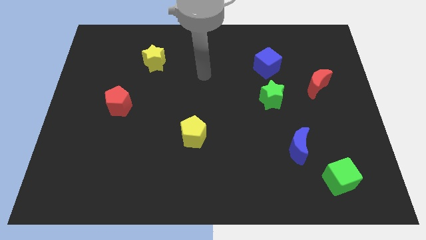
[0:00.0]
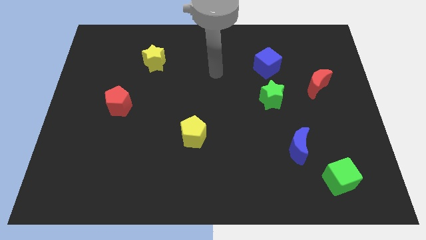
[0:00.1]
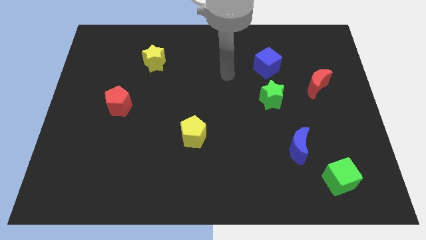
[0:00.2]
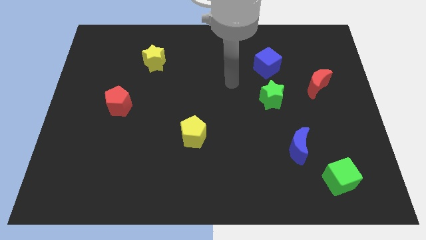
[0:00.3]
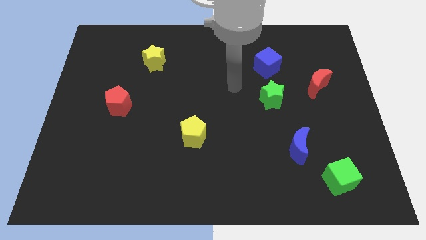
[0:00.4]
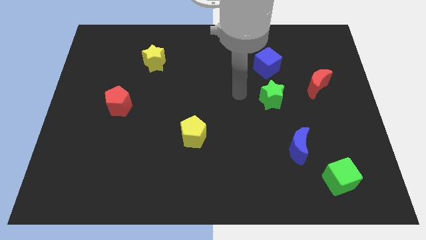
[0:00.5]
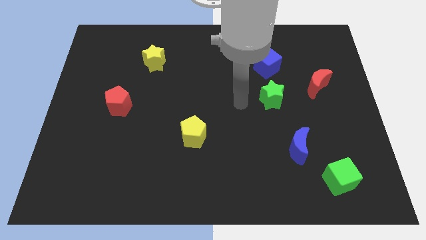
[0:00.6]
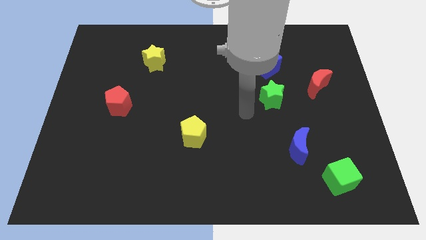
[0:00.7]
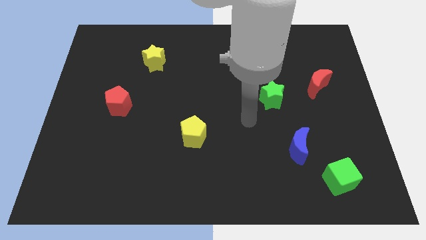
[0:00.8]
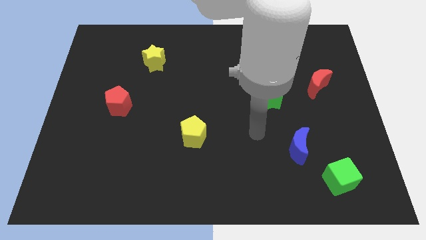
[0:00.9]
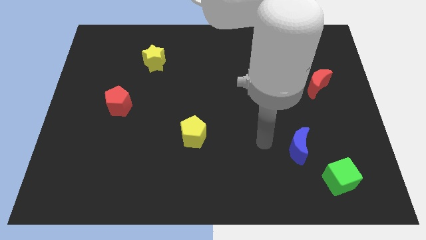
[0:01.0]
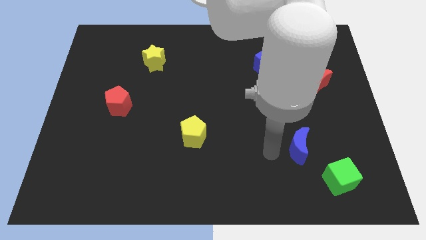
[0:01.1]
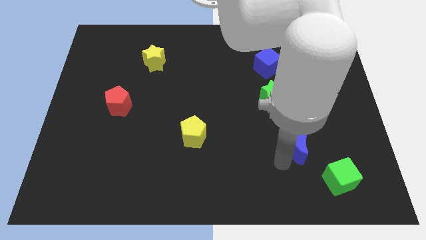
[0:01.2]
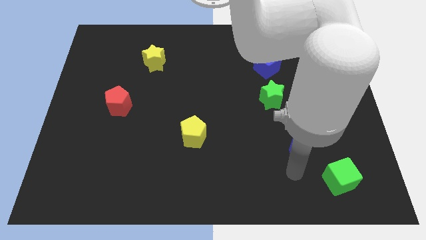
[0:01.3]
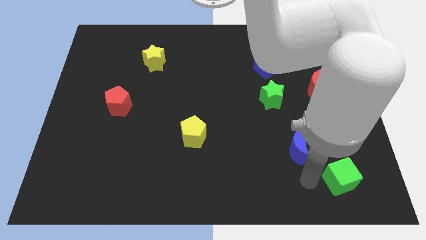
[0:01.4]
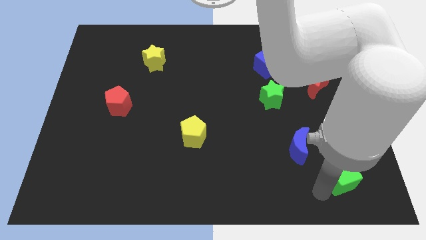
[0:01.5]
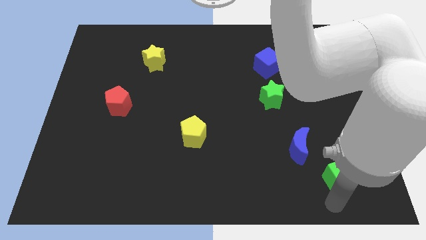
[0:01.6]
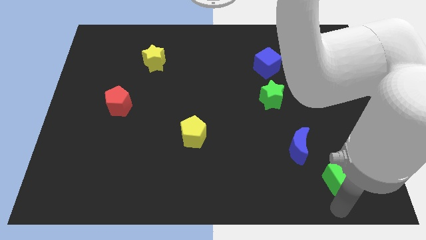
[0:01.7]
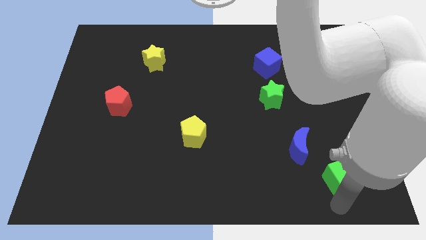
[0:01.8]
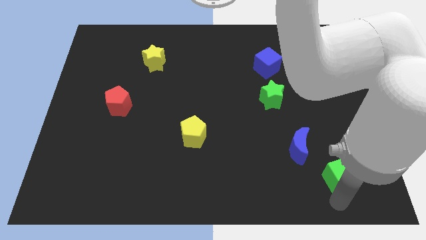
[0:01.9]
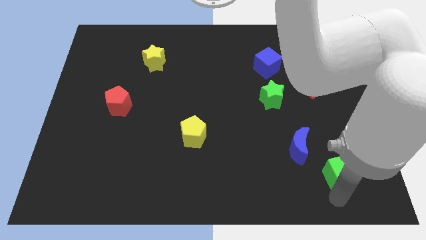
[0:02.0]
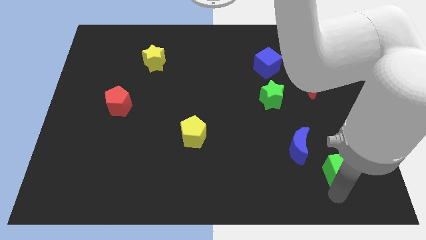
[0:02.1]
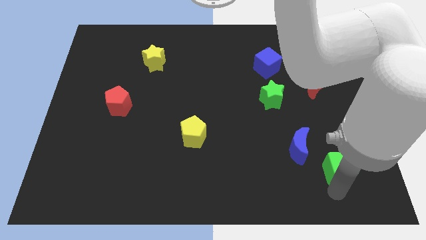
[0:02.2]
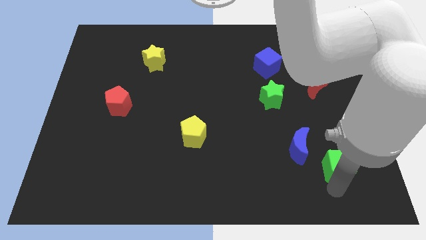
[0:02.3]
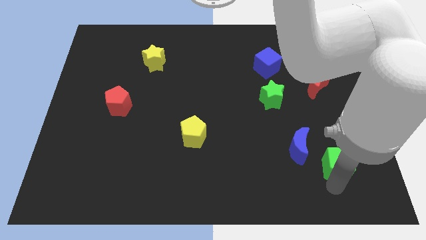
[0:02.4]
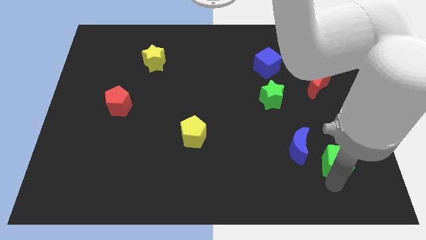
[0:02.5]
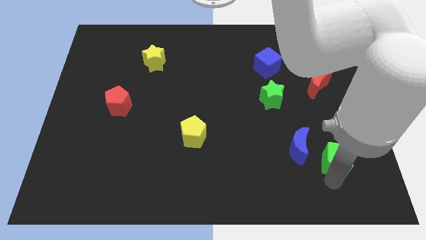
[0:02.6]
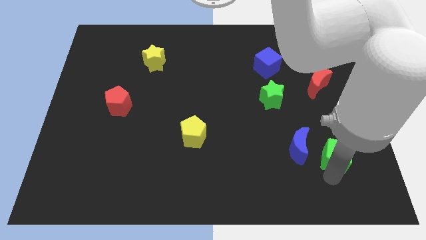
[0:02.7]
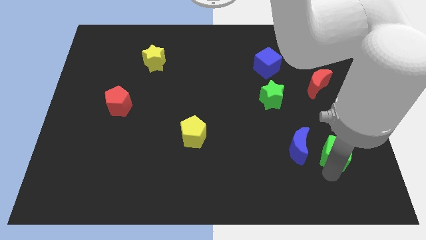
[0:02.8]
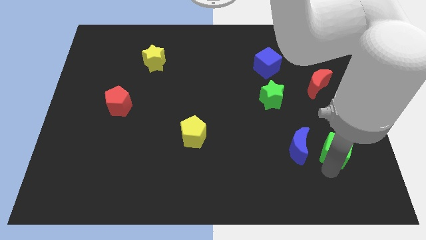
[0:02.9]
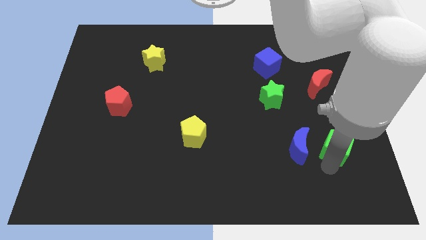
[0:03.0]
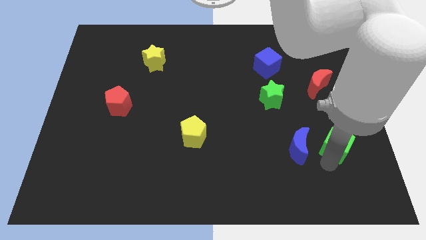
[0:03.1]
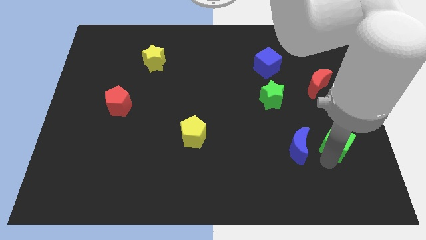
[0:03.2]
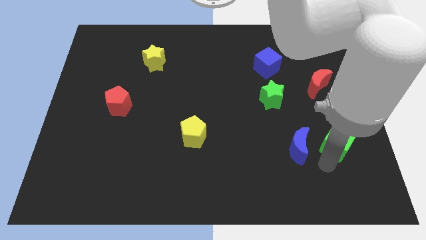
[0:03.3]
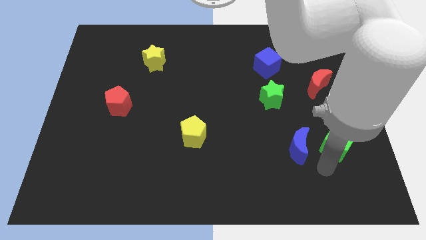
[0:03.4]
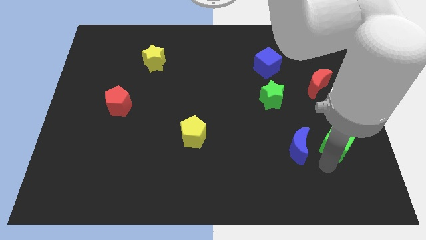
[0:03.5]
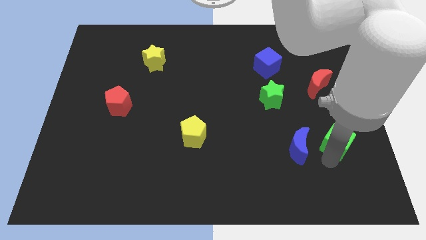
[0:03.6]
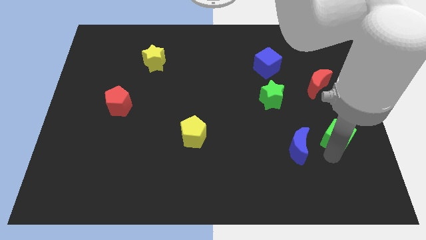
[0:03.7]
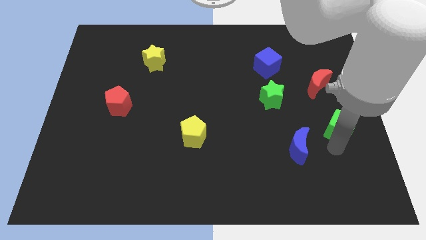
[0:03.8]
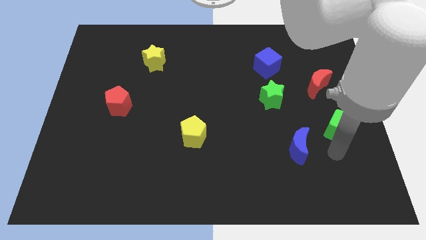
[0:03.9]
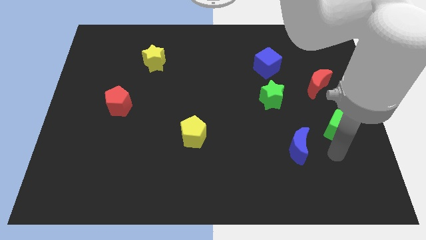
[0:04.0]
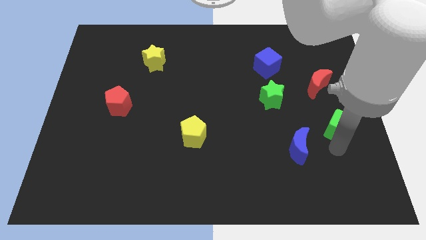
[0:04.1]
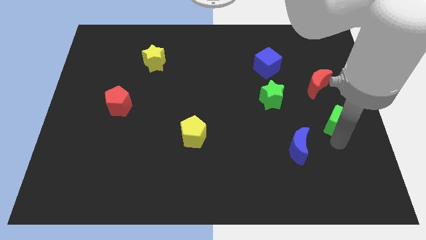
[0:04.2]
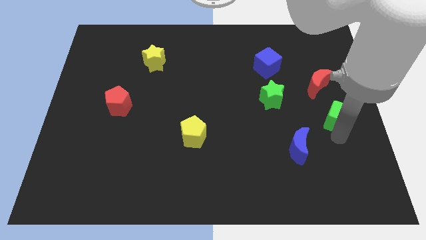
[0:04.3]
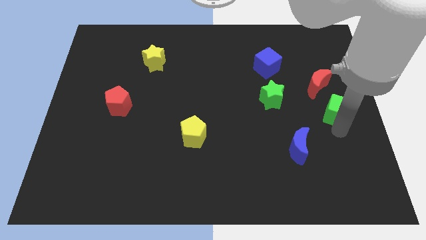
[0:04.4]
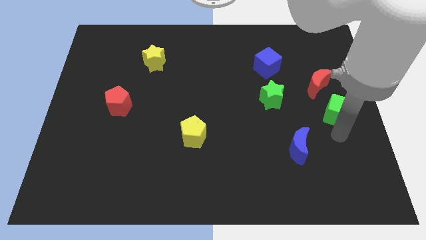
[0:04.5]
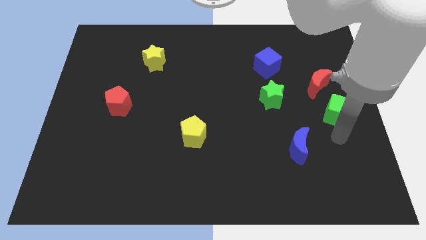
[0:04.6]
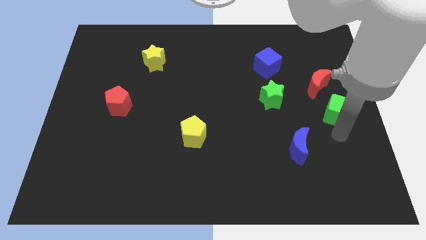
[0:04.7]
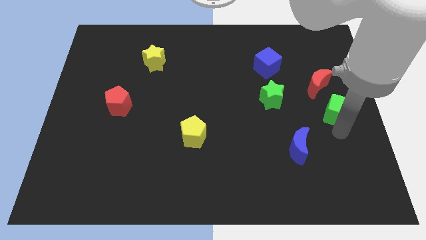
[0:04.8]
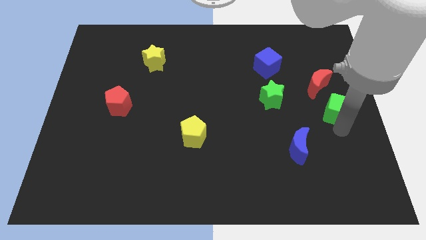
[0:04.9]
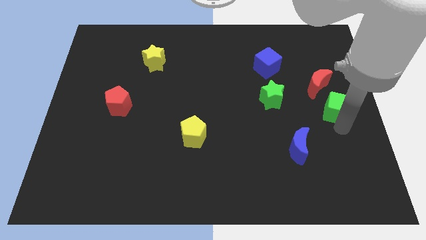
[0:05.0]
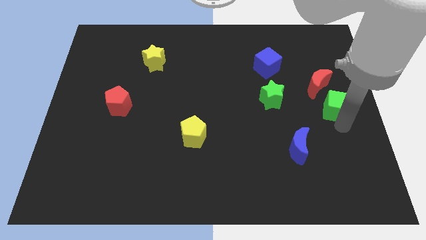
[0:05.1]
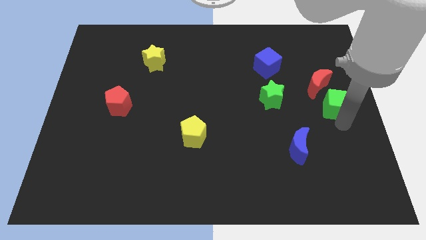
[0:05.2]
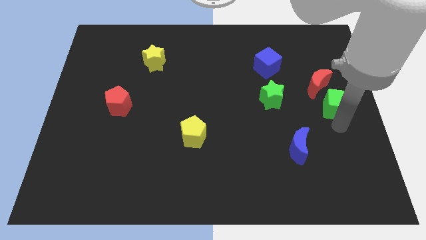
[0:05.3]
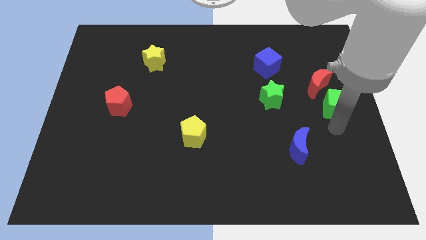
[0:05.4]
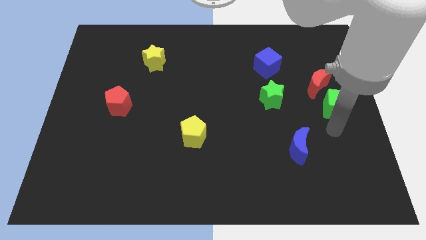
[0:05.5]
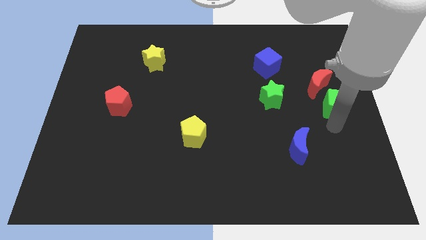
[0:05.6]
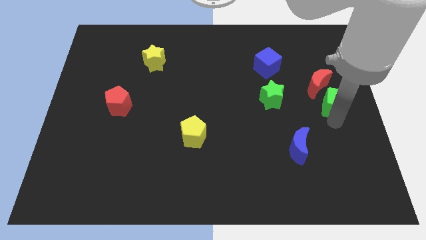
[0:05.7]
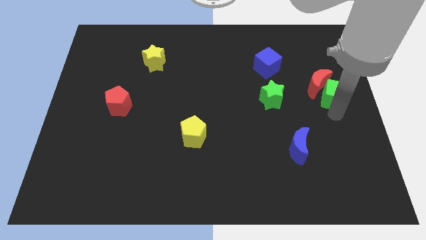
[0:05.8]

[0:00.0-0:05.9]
push the green cube upwards

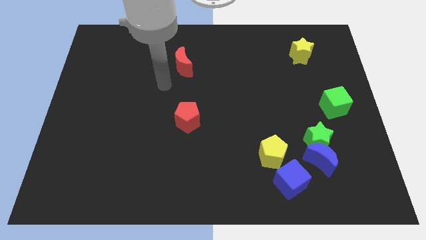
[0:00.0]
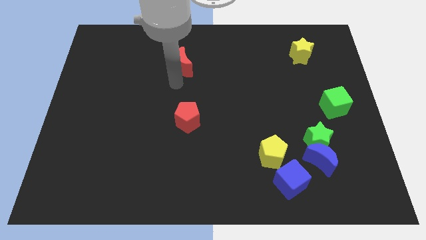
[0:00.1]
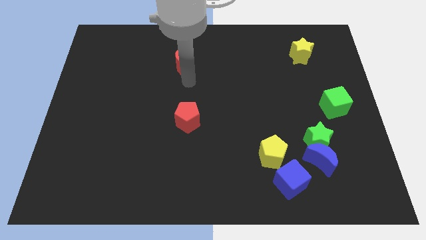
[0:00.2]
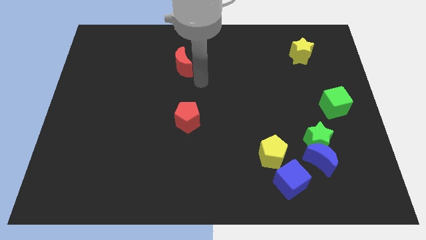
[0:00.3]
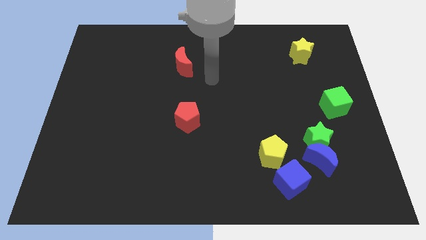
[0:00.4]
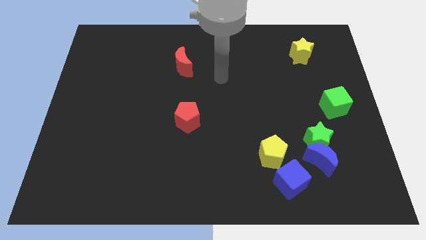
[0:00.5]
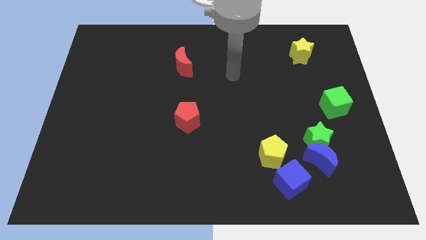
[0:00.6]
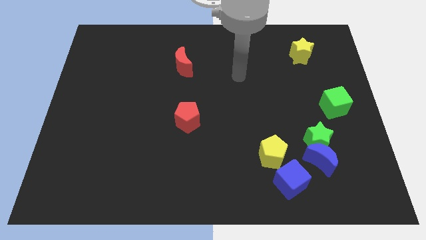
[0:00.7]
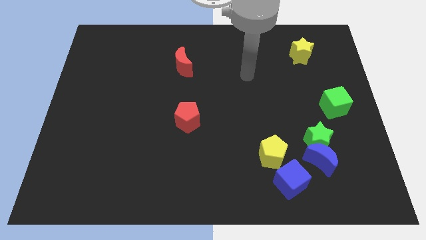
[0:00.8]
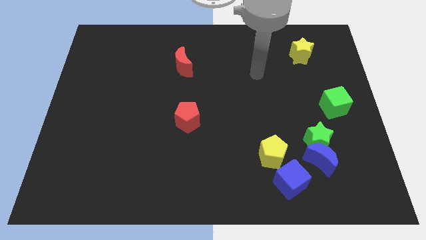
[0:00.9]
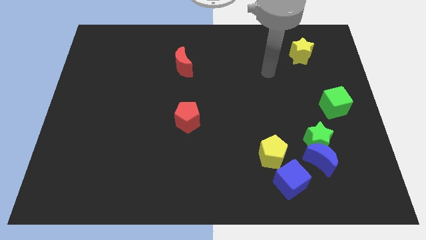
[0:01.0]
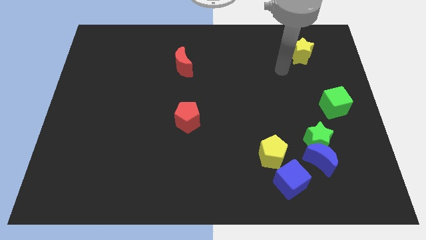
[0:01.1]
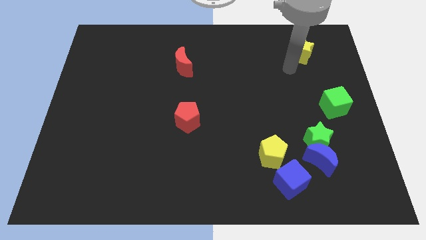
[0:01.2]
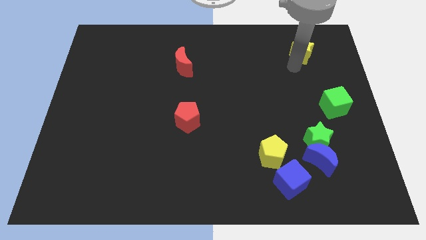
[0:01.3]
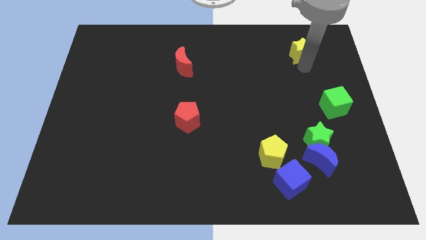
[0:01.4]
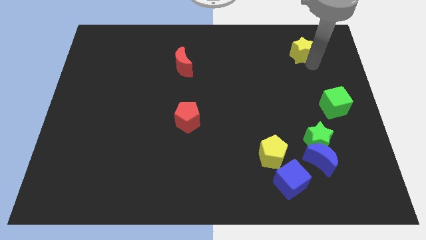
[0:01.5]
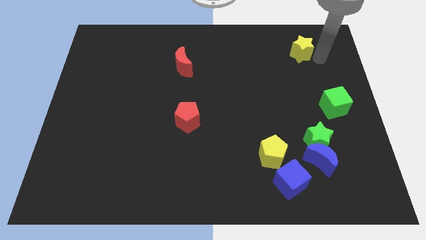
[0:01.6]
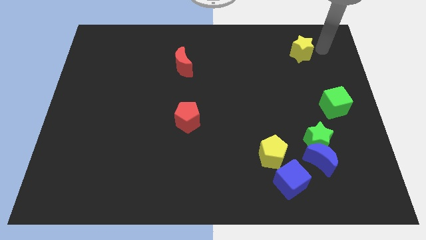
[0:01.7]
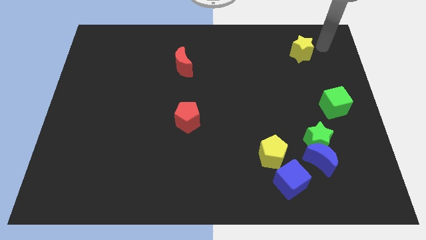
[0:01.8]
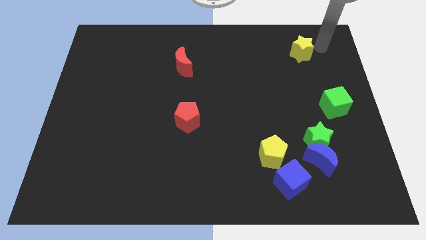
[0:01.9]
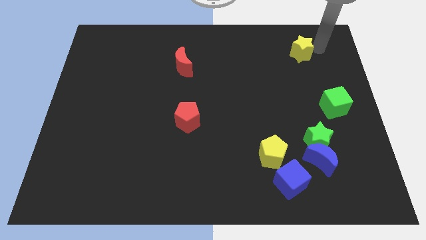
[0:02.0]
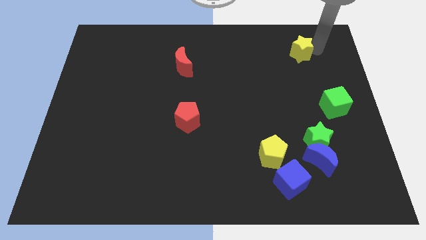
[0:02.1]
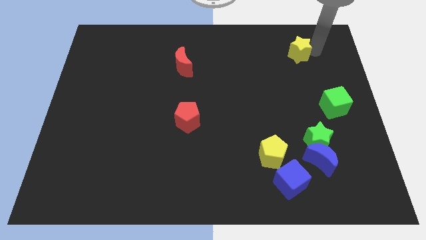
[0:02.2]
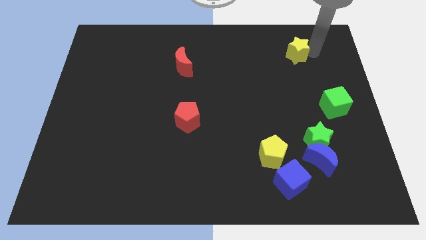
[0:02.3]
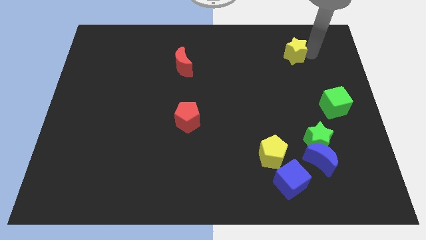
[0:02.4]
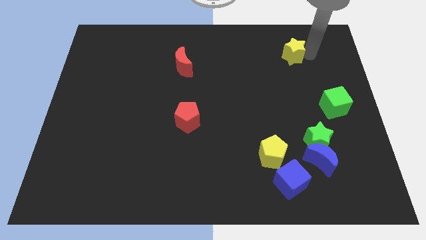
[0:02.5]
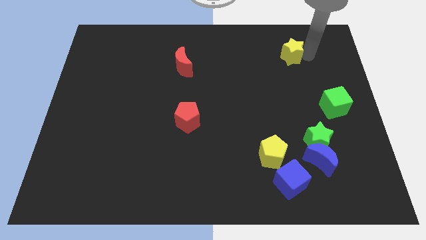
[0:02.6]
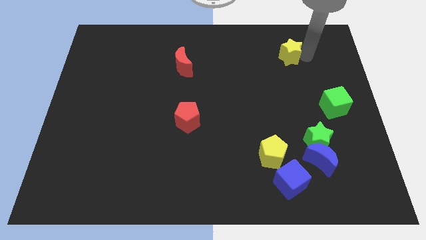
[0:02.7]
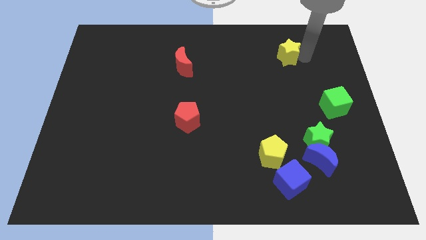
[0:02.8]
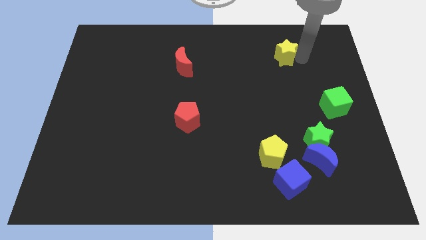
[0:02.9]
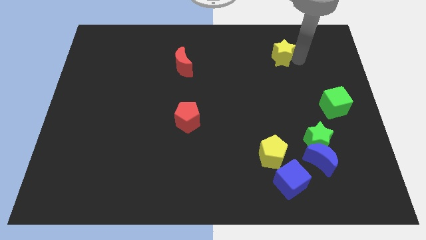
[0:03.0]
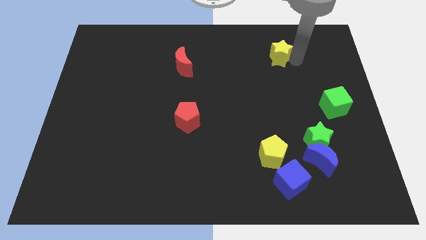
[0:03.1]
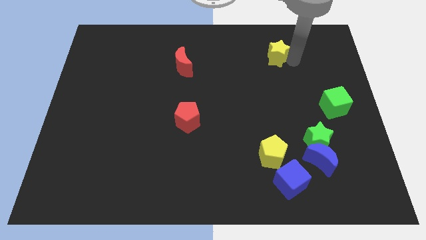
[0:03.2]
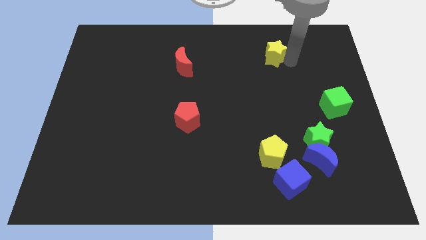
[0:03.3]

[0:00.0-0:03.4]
slide the yellow star a bit left
